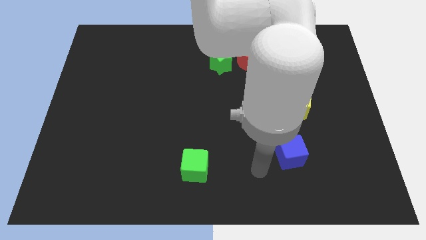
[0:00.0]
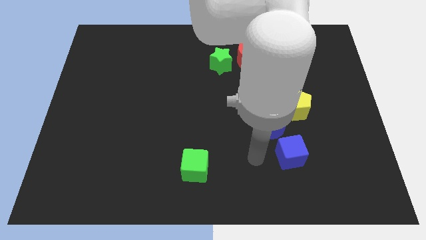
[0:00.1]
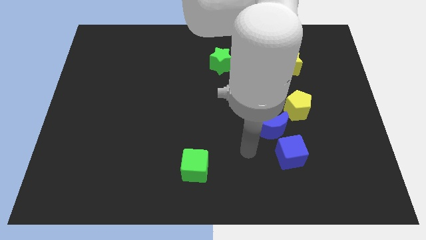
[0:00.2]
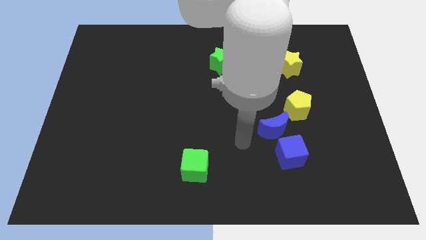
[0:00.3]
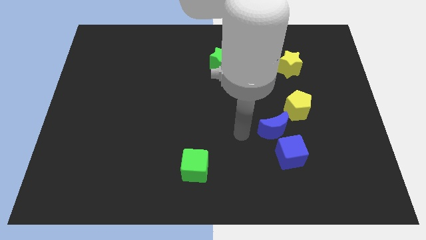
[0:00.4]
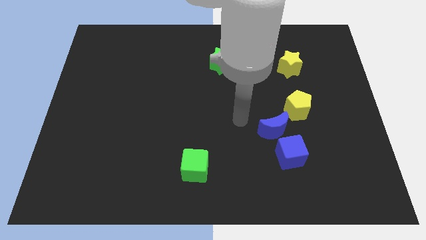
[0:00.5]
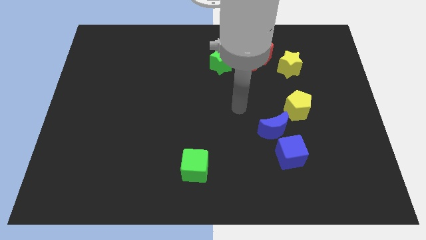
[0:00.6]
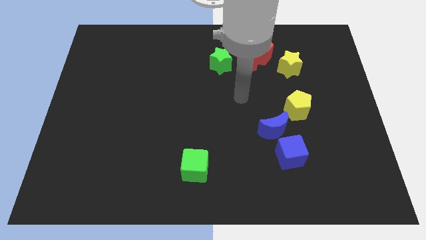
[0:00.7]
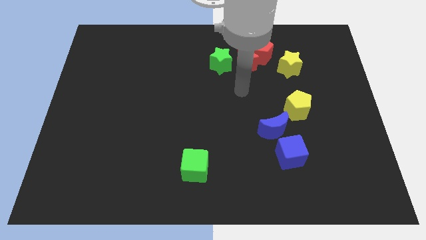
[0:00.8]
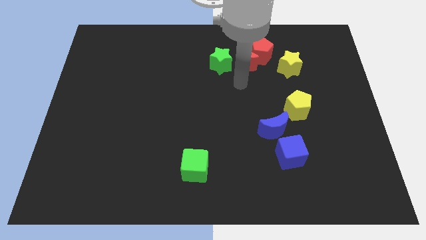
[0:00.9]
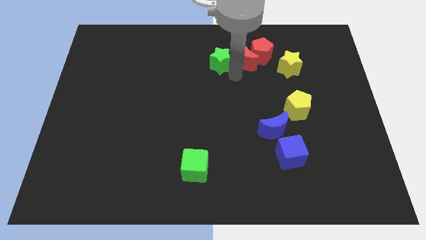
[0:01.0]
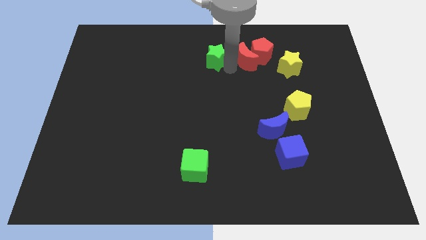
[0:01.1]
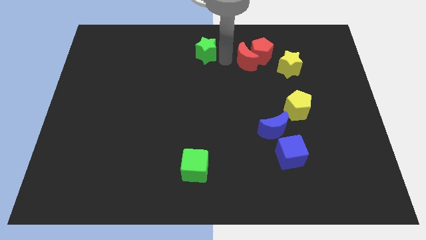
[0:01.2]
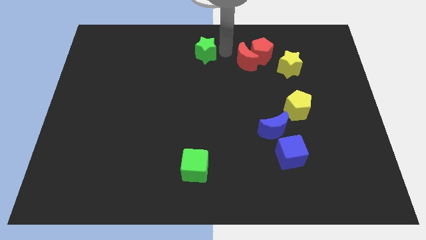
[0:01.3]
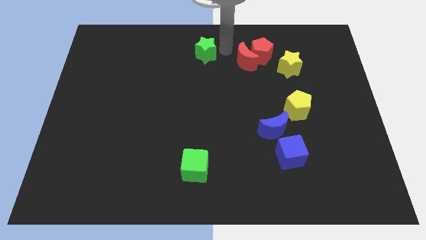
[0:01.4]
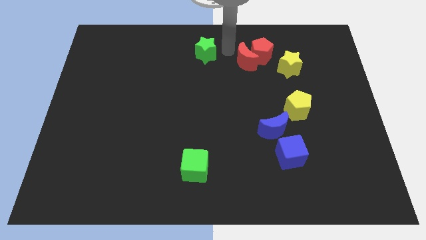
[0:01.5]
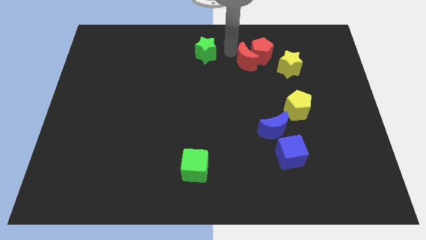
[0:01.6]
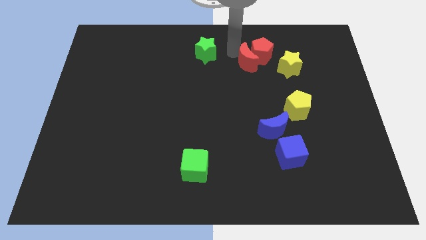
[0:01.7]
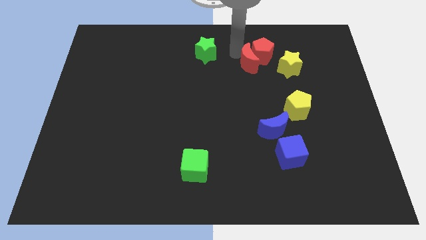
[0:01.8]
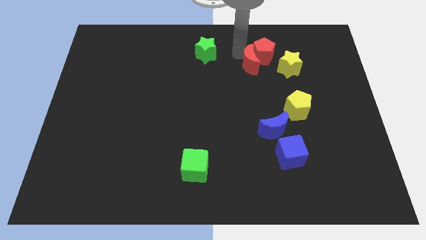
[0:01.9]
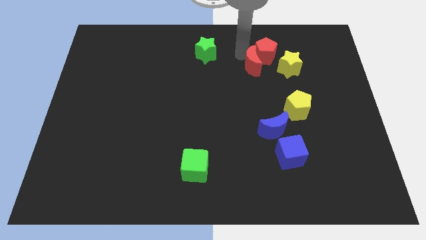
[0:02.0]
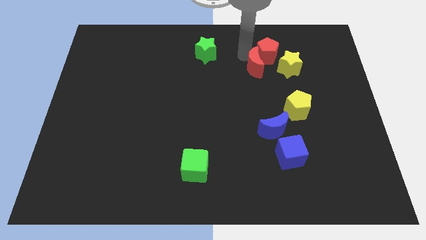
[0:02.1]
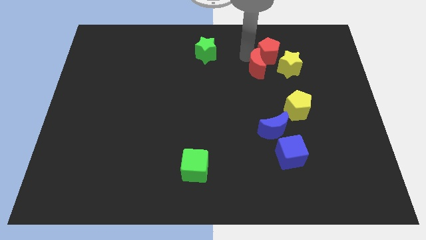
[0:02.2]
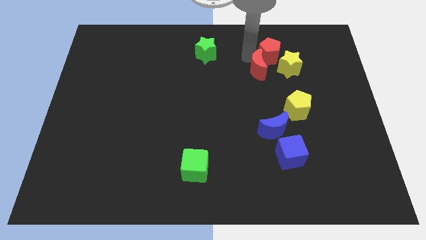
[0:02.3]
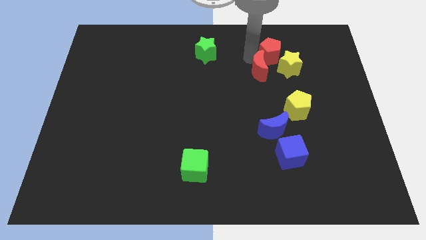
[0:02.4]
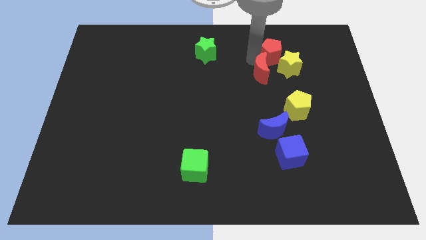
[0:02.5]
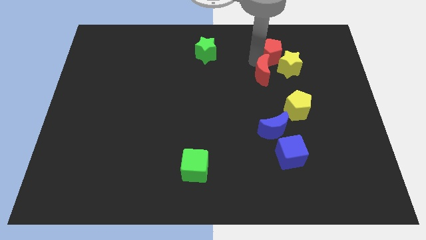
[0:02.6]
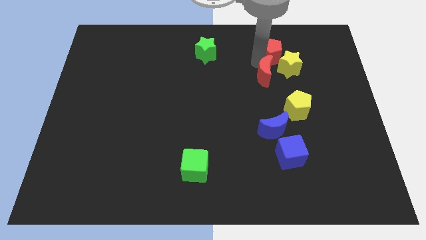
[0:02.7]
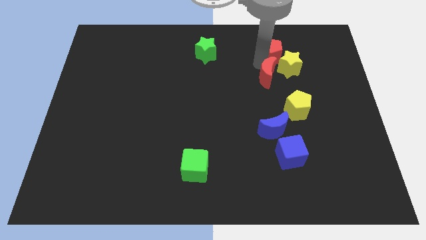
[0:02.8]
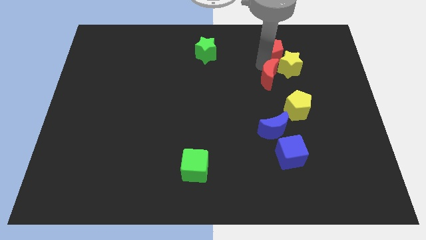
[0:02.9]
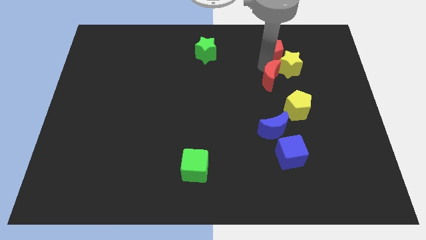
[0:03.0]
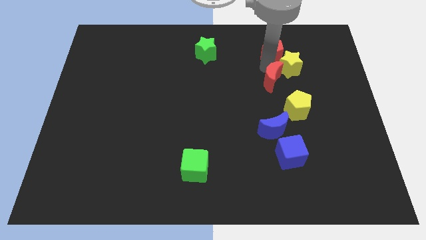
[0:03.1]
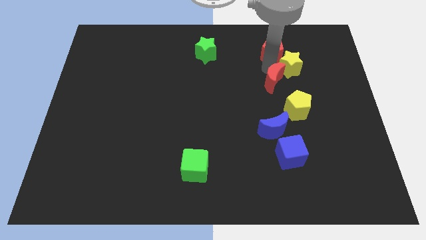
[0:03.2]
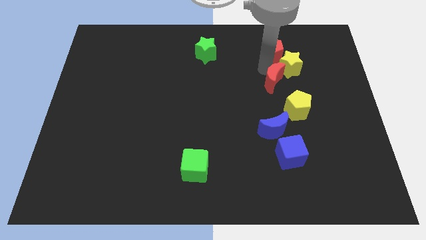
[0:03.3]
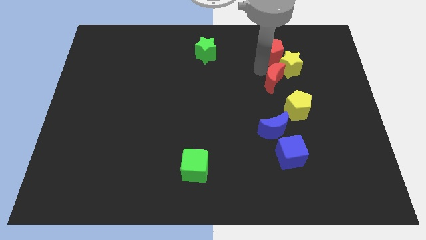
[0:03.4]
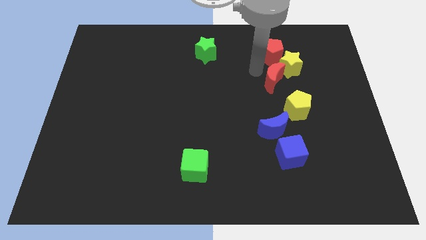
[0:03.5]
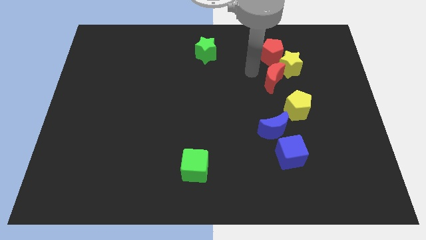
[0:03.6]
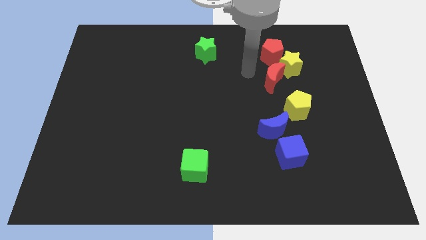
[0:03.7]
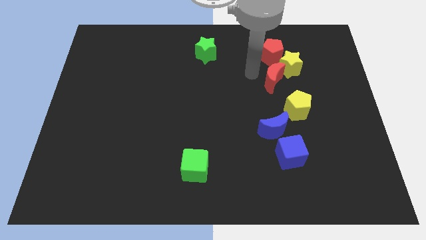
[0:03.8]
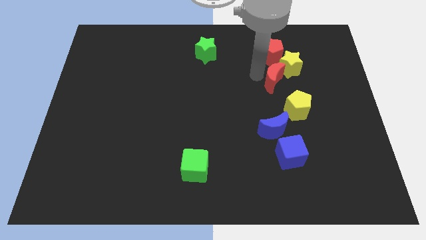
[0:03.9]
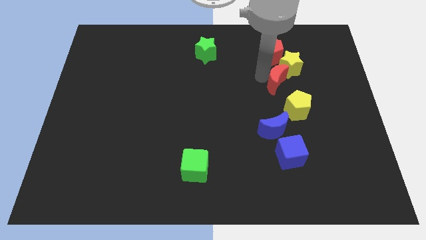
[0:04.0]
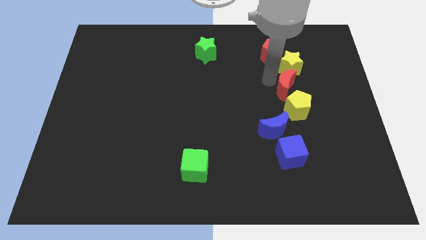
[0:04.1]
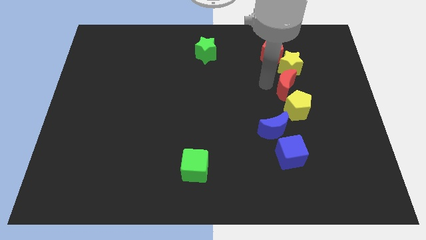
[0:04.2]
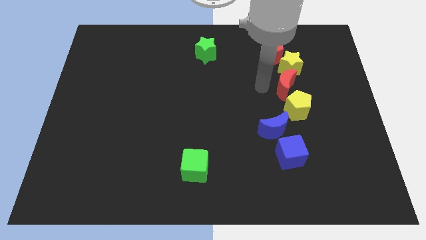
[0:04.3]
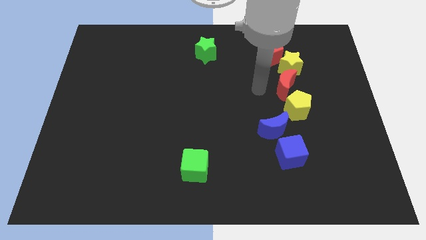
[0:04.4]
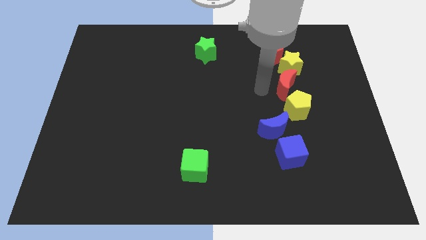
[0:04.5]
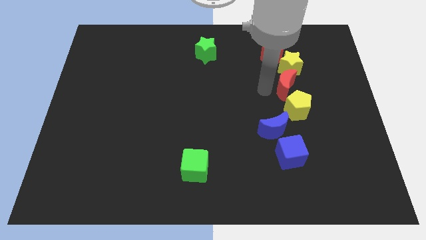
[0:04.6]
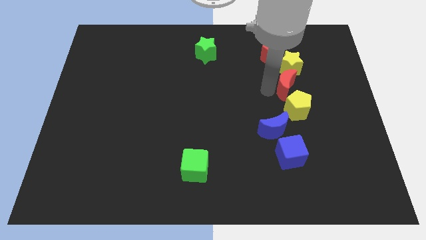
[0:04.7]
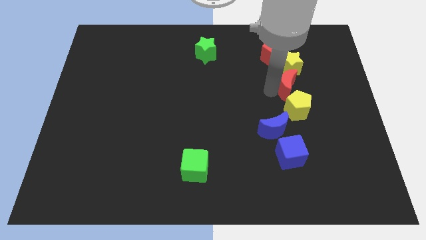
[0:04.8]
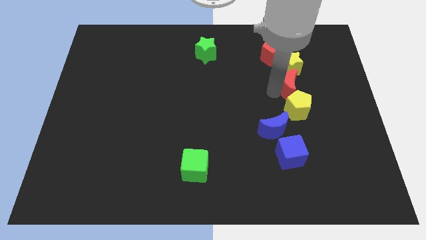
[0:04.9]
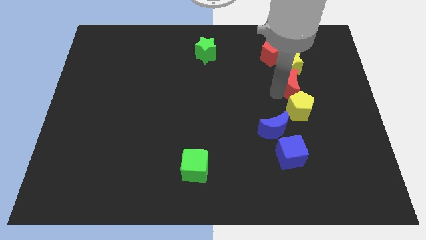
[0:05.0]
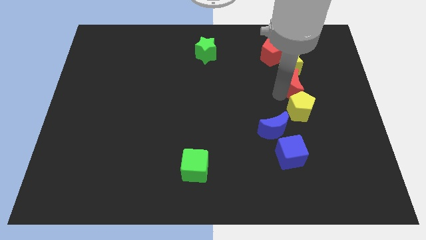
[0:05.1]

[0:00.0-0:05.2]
put the red moon diagonally down and to the right of the yellow star

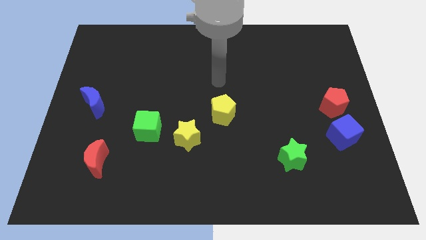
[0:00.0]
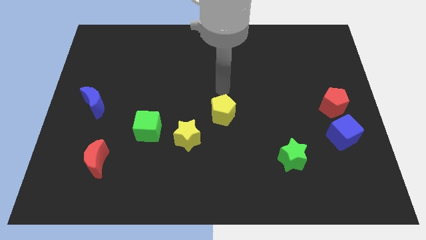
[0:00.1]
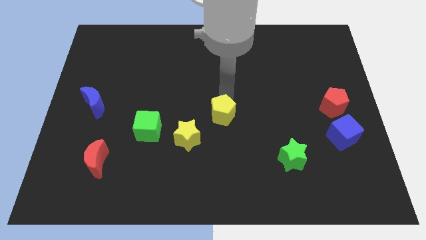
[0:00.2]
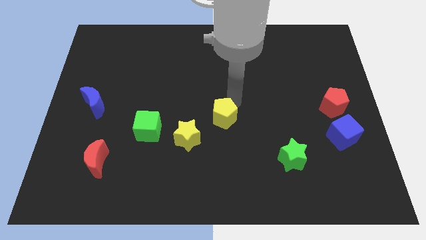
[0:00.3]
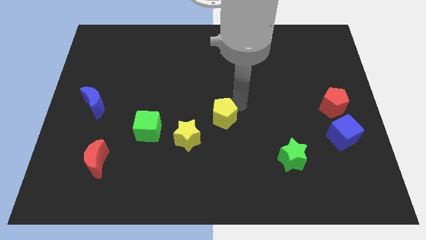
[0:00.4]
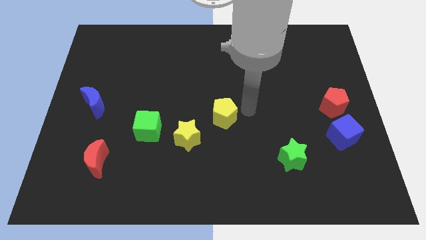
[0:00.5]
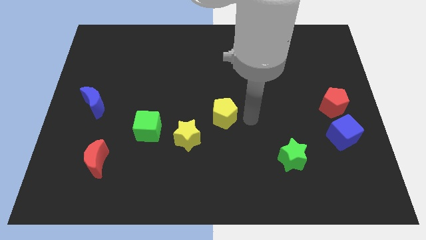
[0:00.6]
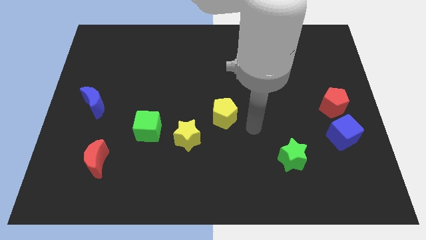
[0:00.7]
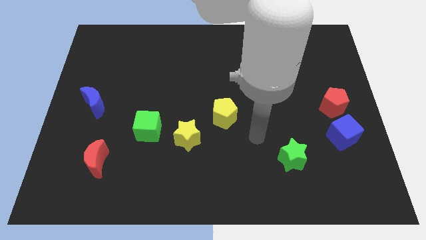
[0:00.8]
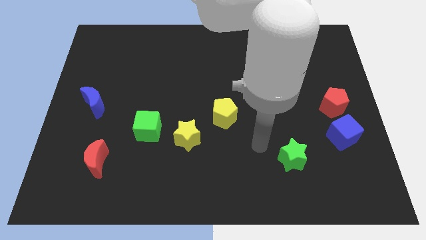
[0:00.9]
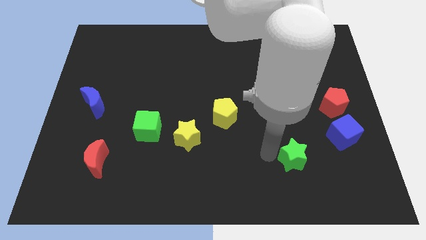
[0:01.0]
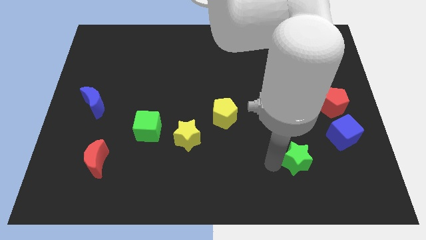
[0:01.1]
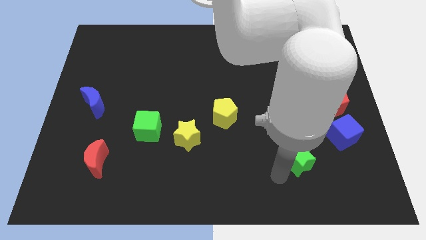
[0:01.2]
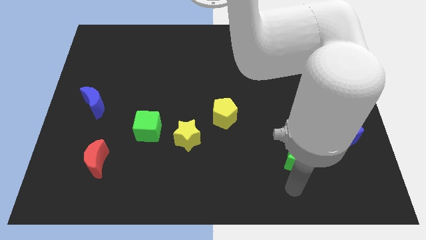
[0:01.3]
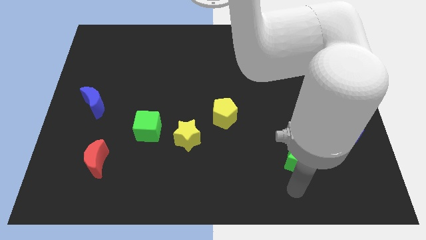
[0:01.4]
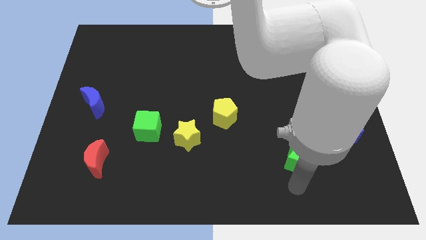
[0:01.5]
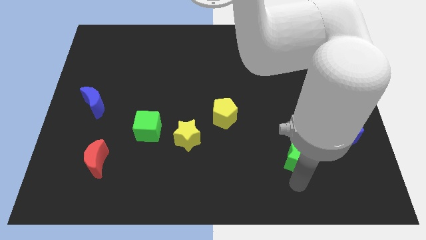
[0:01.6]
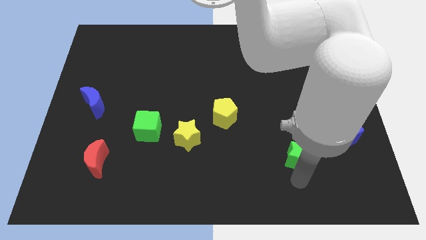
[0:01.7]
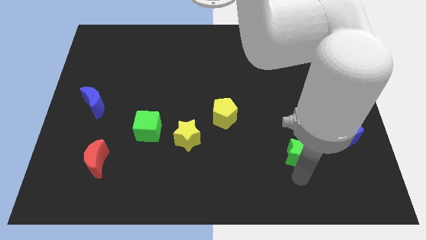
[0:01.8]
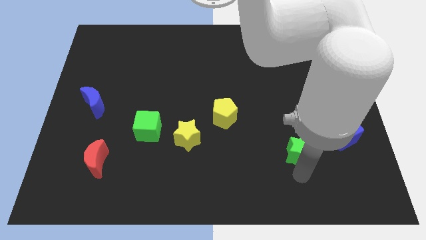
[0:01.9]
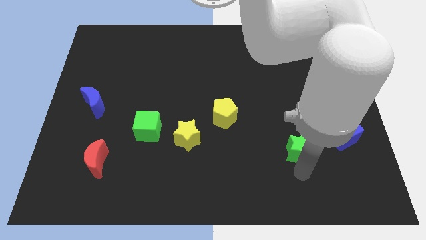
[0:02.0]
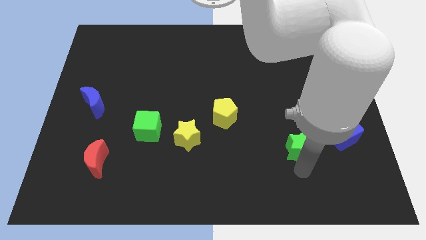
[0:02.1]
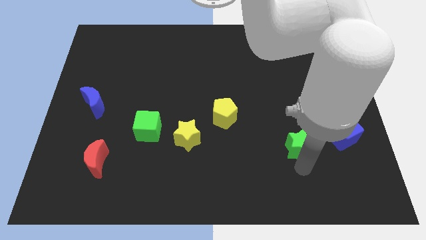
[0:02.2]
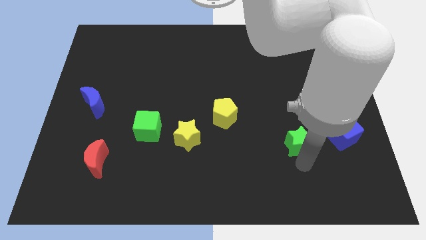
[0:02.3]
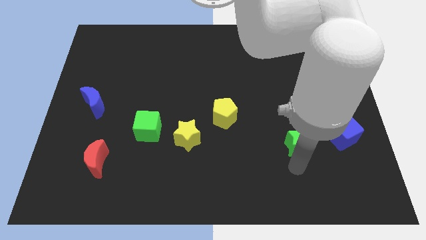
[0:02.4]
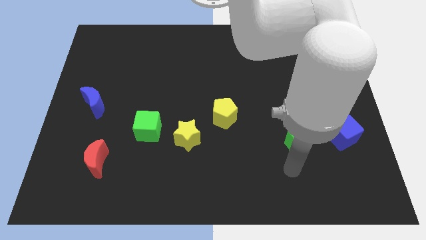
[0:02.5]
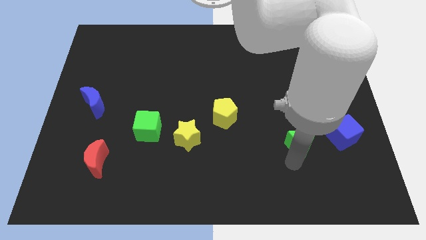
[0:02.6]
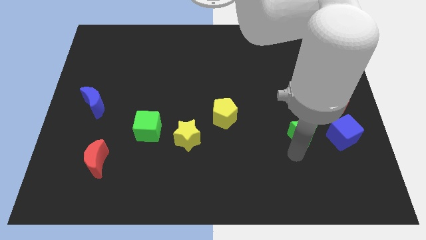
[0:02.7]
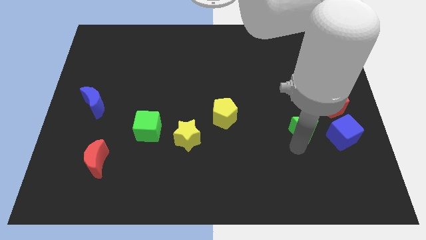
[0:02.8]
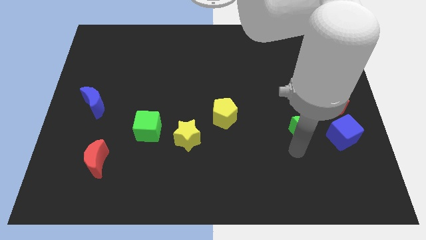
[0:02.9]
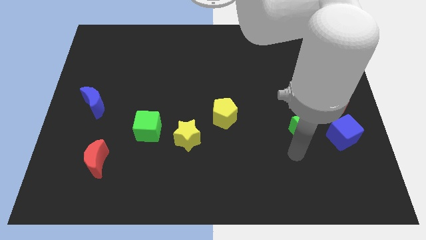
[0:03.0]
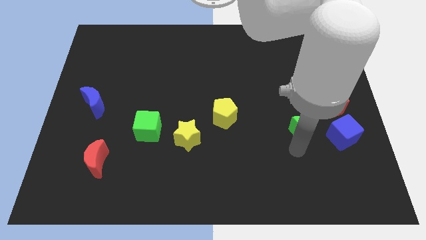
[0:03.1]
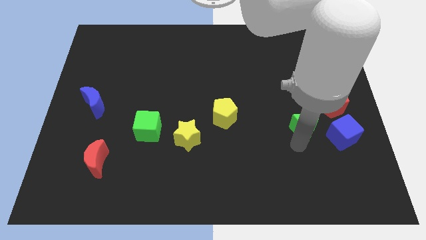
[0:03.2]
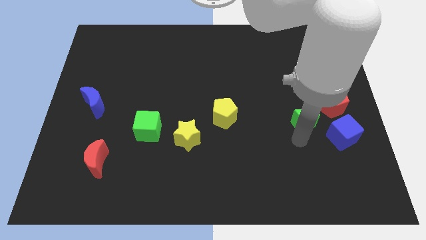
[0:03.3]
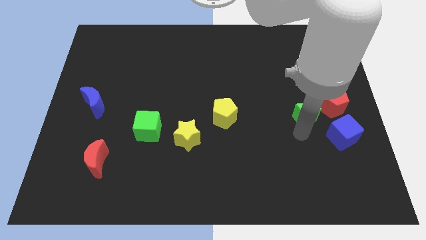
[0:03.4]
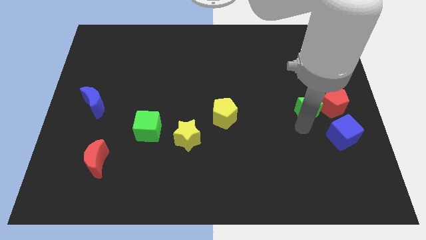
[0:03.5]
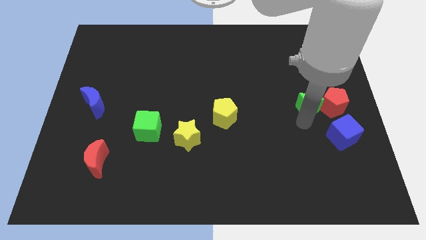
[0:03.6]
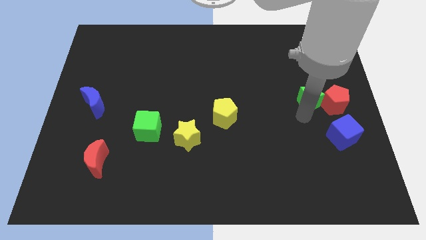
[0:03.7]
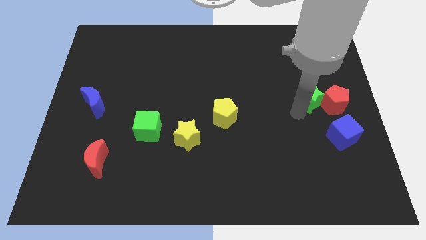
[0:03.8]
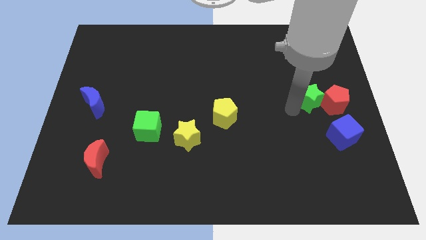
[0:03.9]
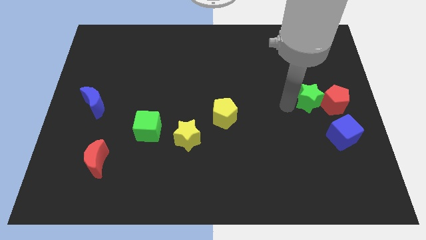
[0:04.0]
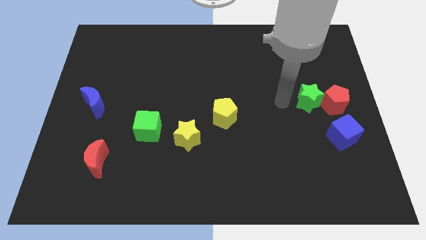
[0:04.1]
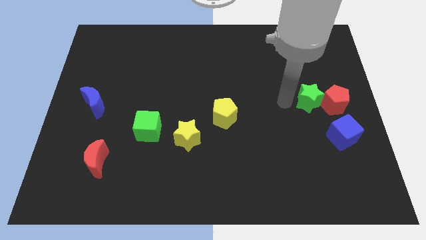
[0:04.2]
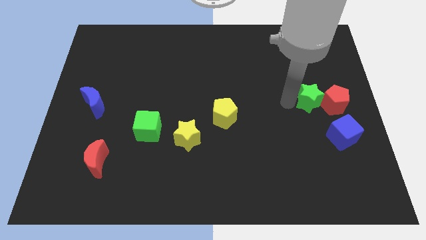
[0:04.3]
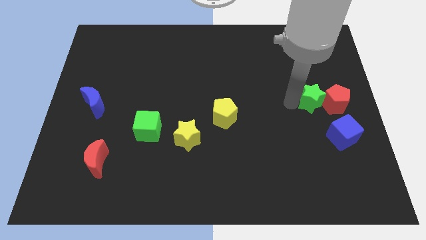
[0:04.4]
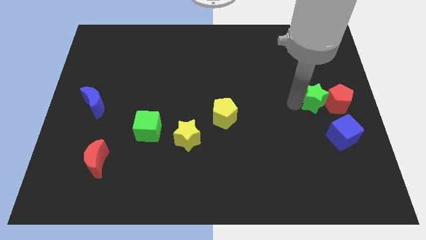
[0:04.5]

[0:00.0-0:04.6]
move the green star above the blue cube
